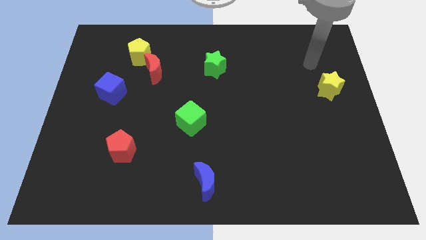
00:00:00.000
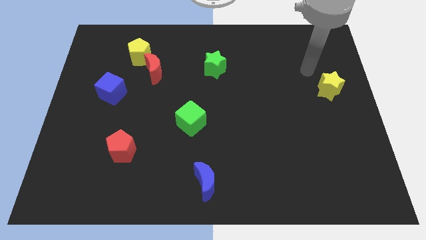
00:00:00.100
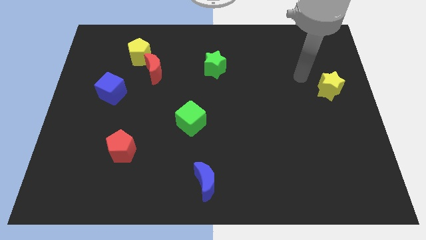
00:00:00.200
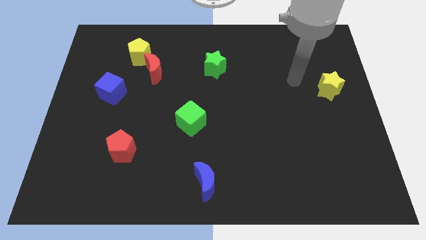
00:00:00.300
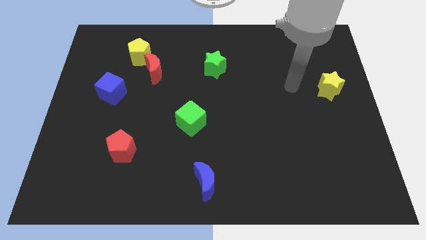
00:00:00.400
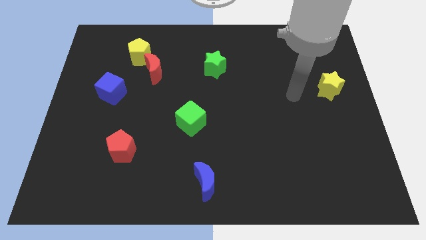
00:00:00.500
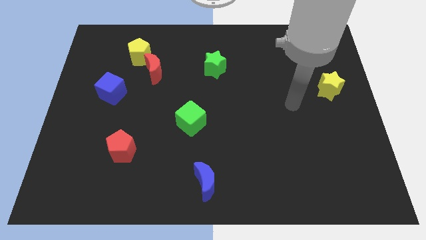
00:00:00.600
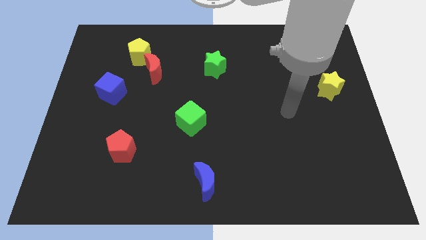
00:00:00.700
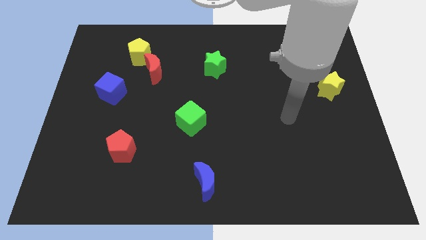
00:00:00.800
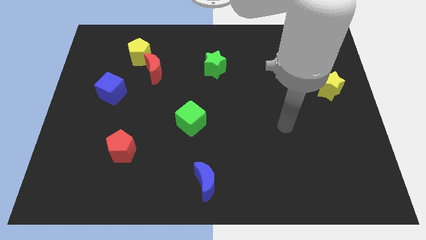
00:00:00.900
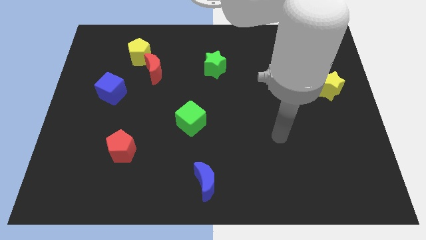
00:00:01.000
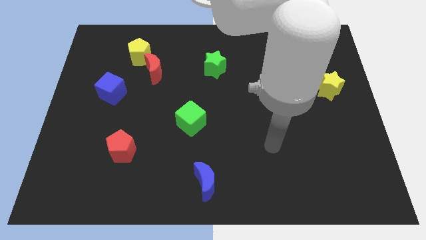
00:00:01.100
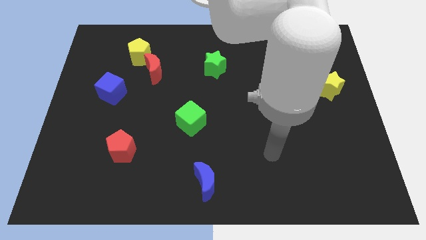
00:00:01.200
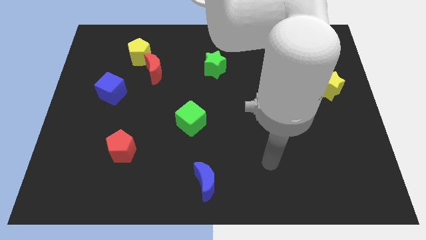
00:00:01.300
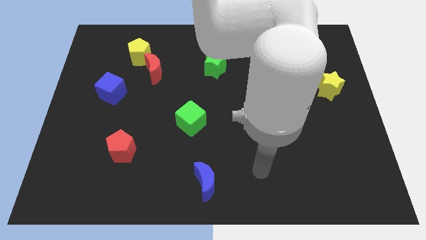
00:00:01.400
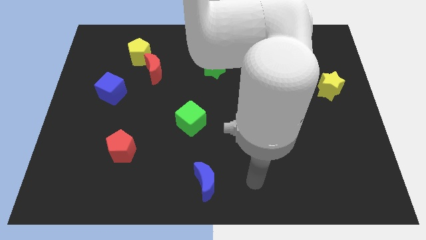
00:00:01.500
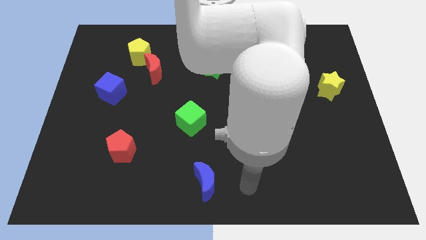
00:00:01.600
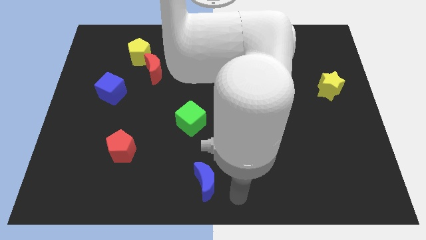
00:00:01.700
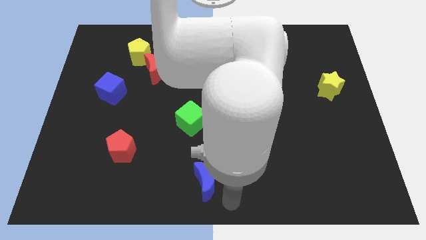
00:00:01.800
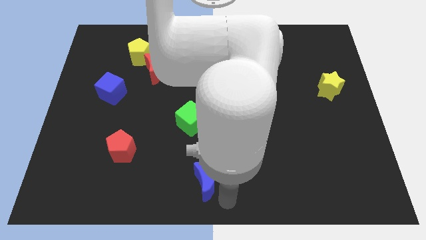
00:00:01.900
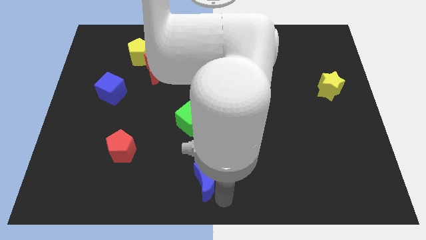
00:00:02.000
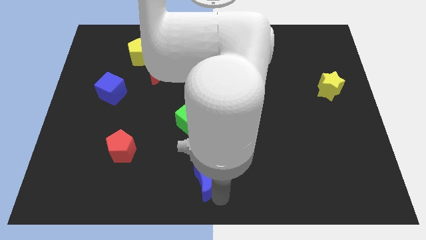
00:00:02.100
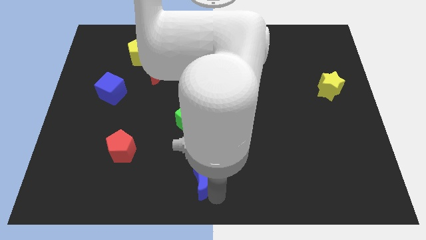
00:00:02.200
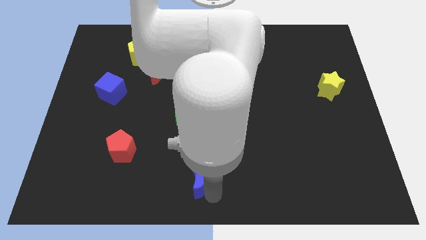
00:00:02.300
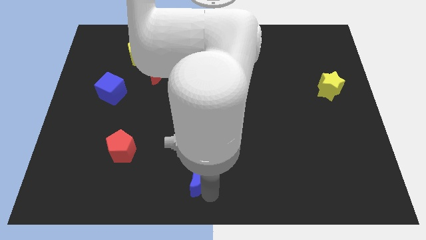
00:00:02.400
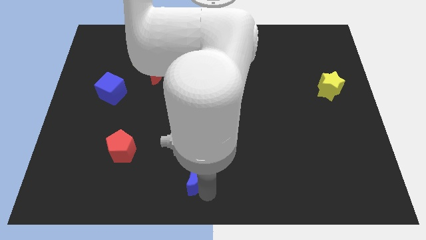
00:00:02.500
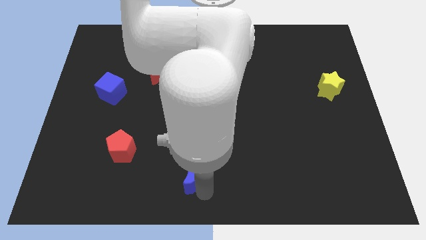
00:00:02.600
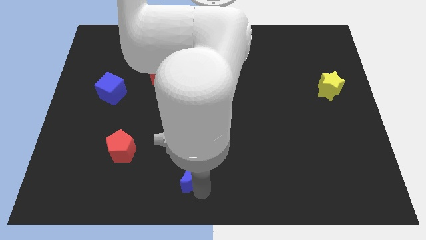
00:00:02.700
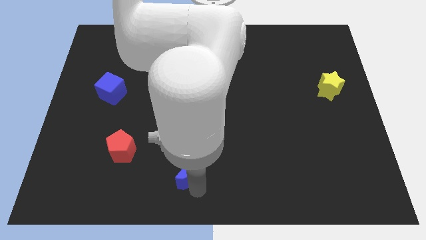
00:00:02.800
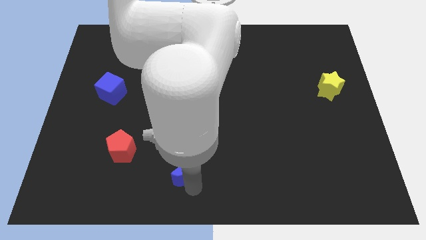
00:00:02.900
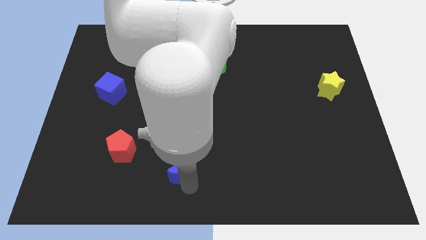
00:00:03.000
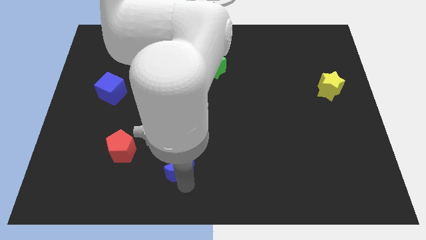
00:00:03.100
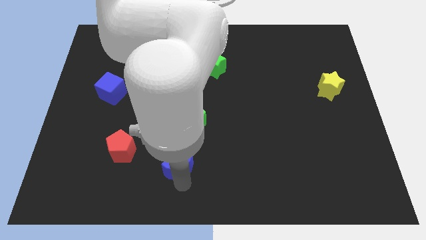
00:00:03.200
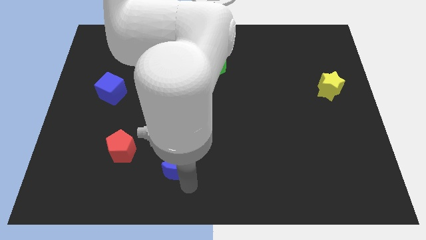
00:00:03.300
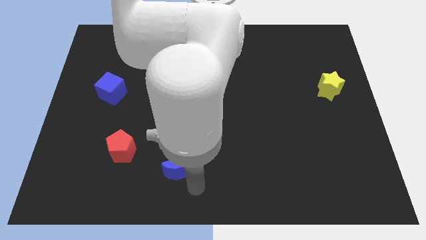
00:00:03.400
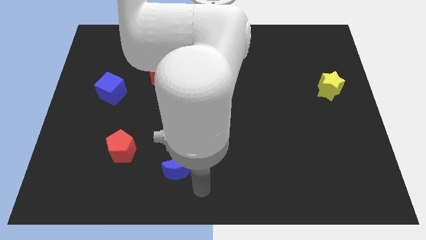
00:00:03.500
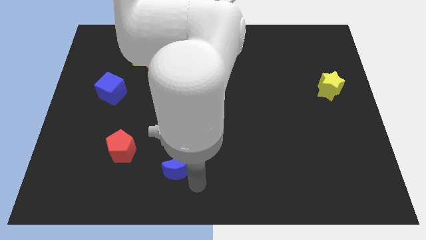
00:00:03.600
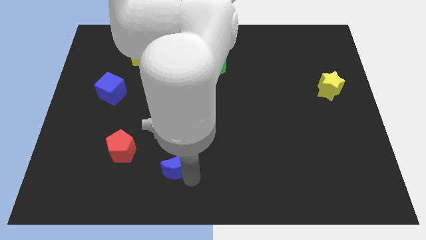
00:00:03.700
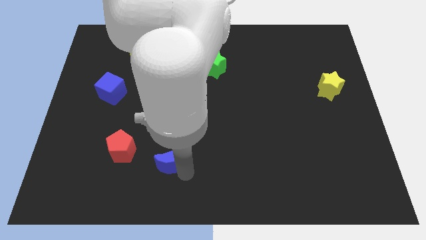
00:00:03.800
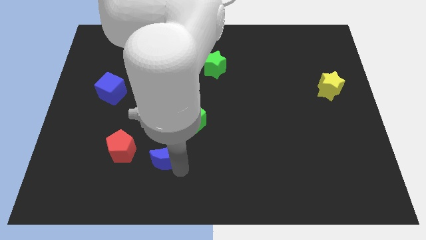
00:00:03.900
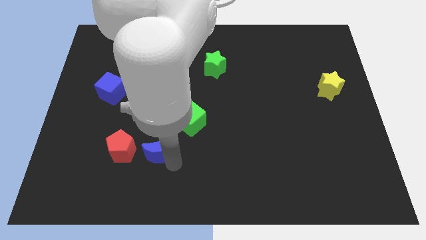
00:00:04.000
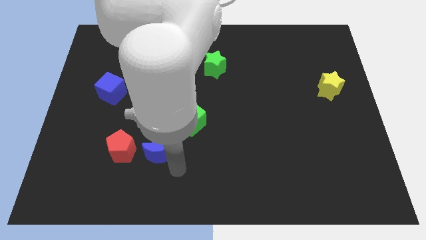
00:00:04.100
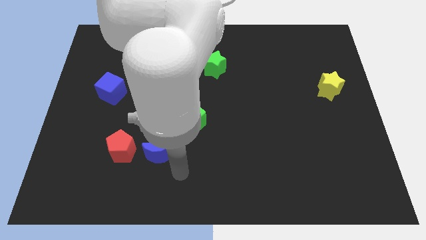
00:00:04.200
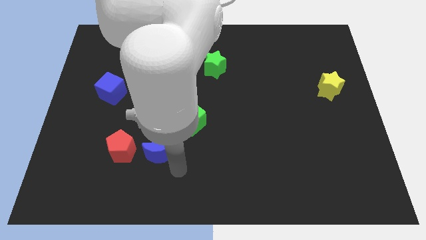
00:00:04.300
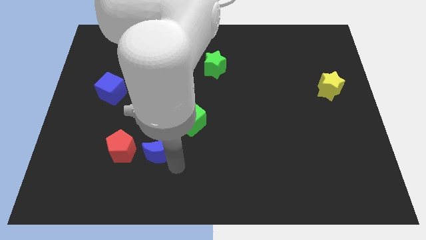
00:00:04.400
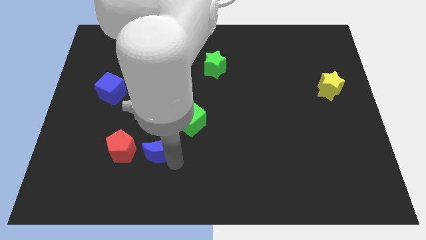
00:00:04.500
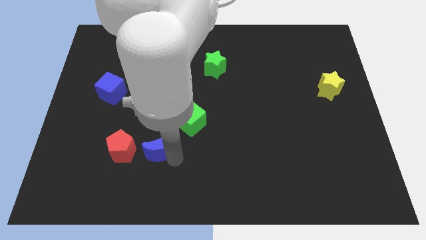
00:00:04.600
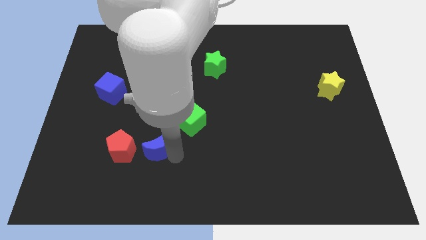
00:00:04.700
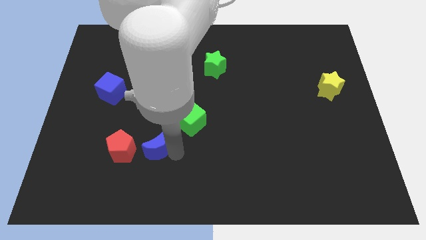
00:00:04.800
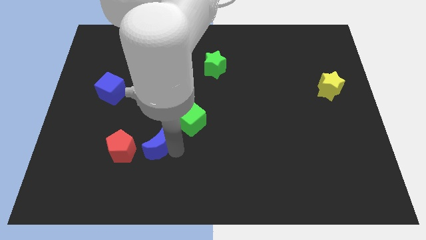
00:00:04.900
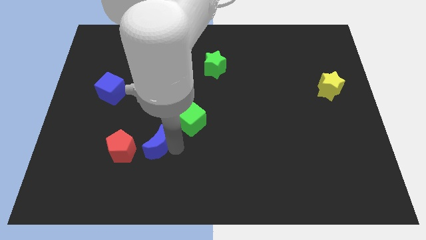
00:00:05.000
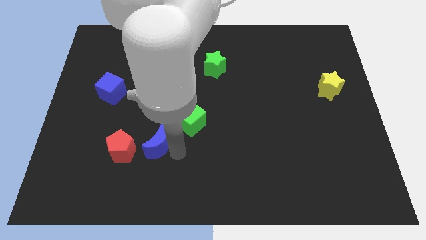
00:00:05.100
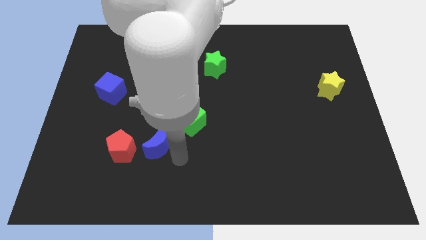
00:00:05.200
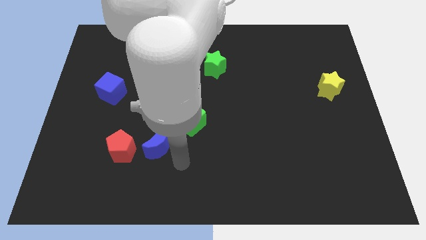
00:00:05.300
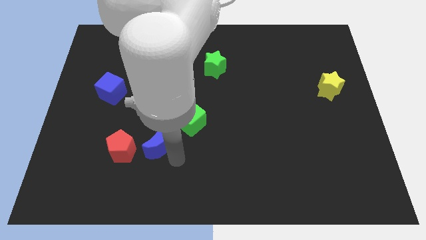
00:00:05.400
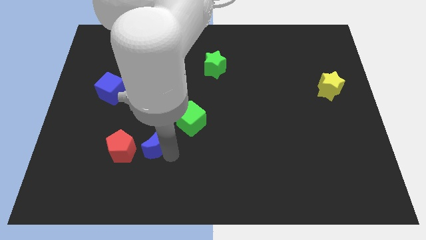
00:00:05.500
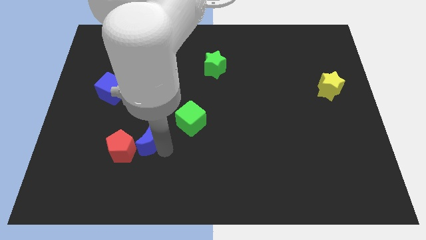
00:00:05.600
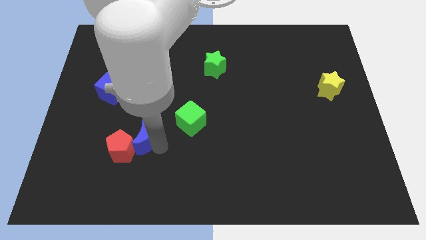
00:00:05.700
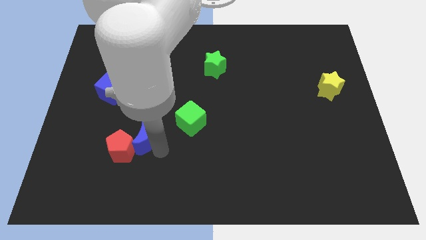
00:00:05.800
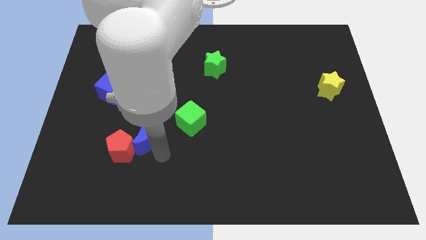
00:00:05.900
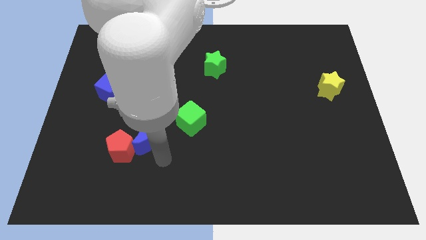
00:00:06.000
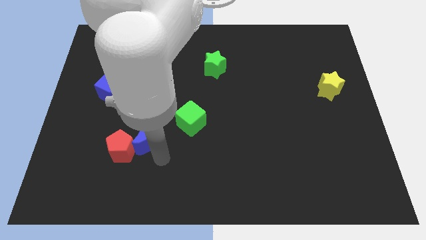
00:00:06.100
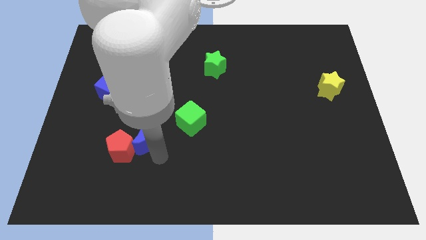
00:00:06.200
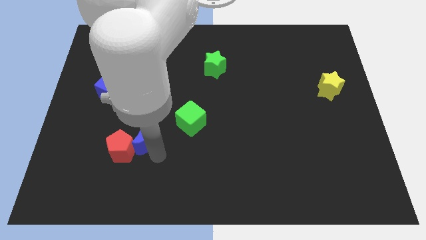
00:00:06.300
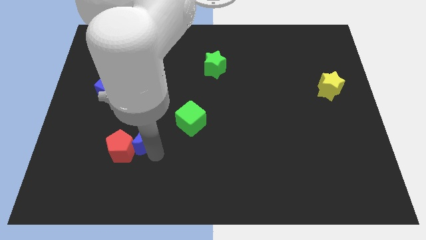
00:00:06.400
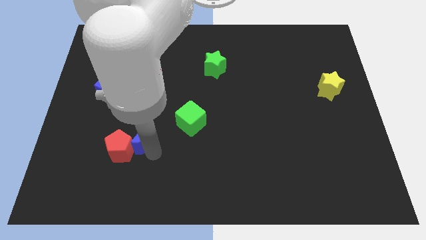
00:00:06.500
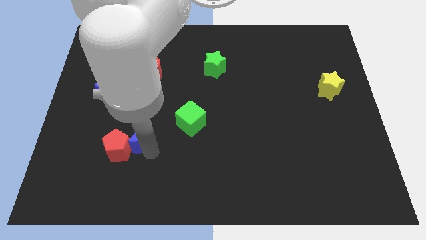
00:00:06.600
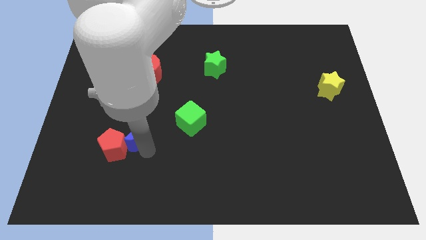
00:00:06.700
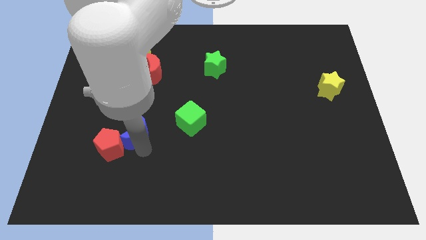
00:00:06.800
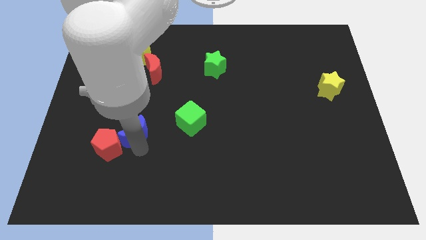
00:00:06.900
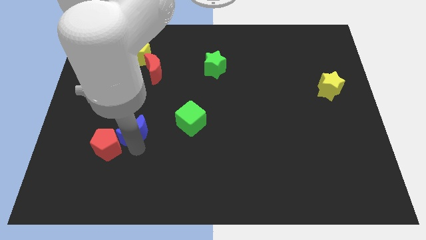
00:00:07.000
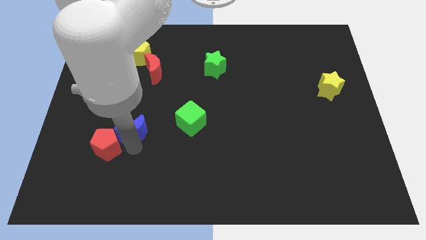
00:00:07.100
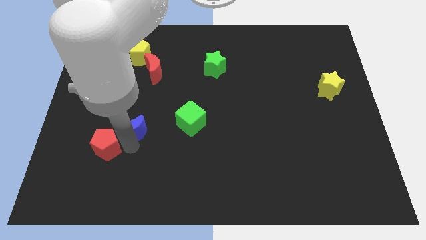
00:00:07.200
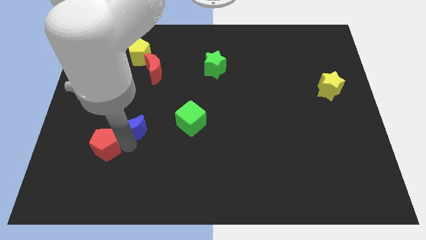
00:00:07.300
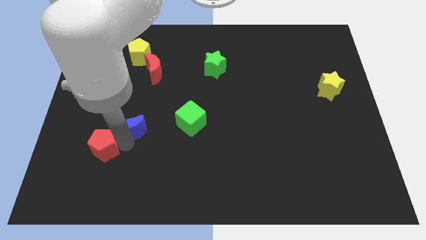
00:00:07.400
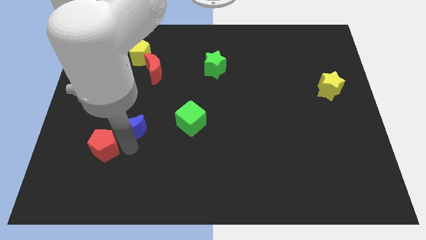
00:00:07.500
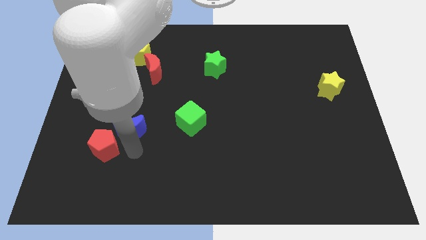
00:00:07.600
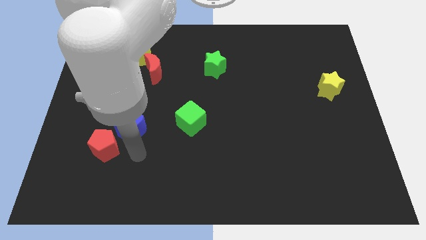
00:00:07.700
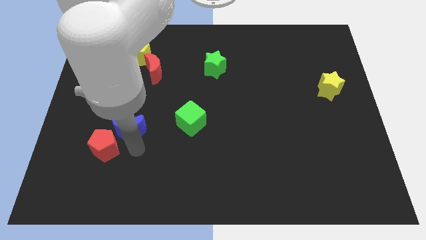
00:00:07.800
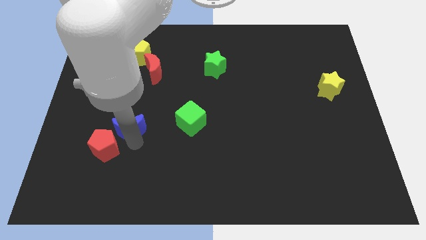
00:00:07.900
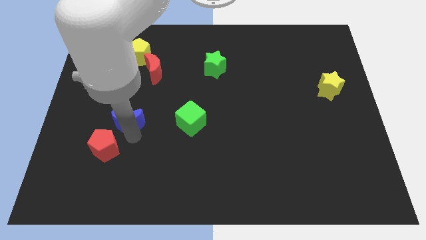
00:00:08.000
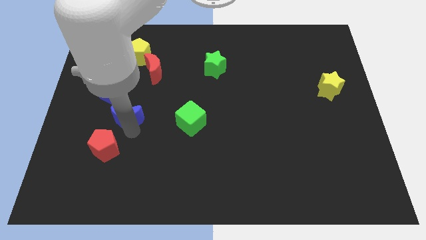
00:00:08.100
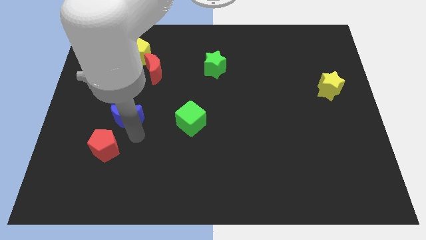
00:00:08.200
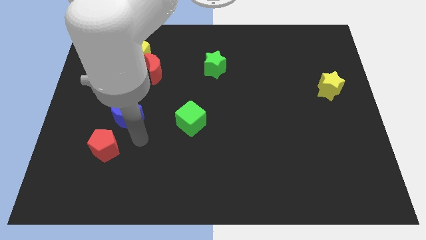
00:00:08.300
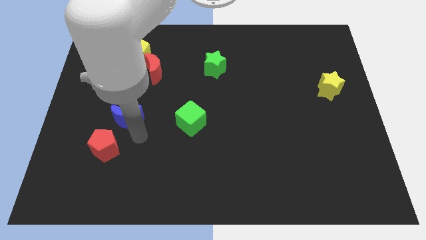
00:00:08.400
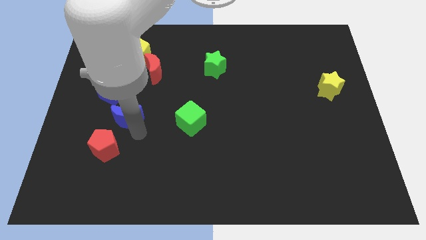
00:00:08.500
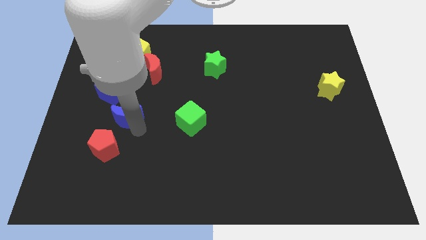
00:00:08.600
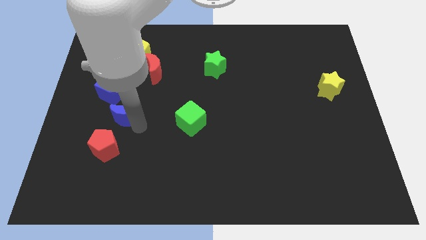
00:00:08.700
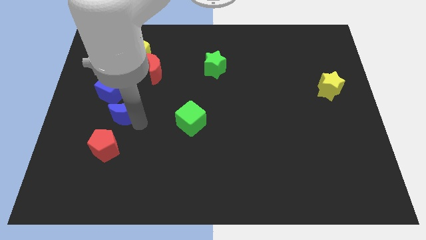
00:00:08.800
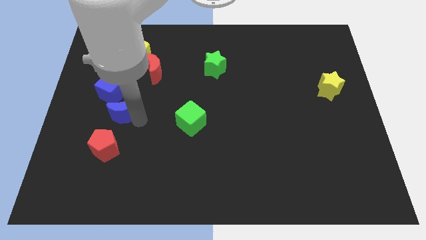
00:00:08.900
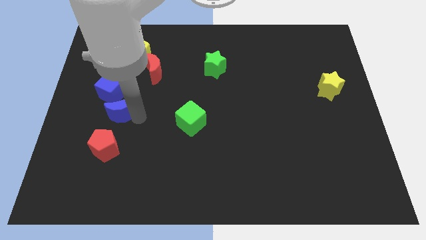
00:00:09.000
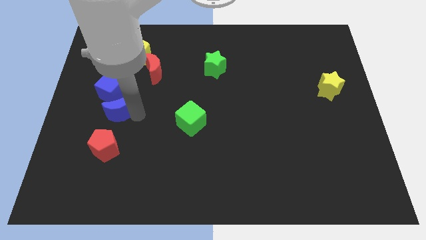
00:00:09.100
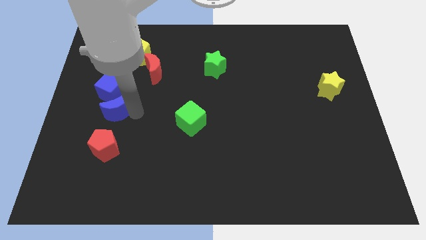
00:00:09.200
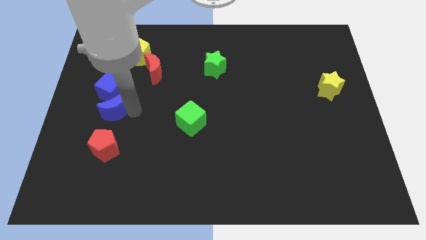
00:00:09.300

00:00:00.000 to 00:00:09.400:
slide the blue moon close to the blue cube
